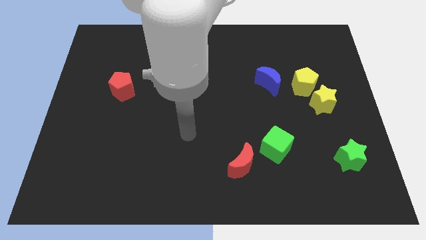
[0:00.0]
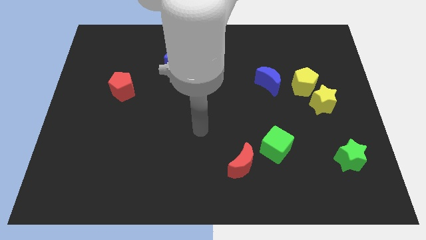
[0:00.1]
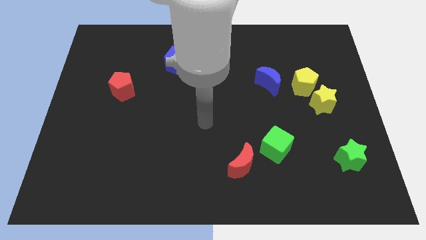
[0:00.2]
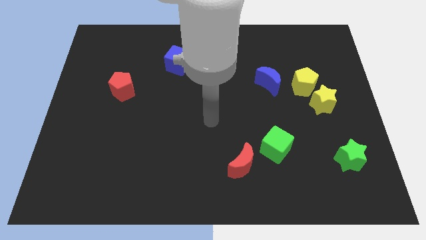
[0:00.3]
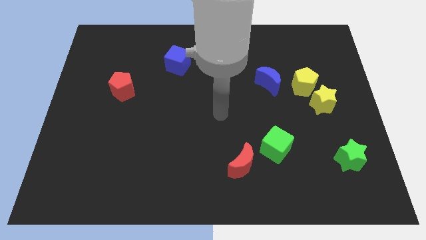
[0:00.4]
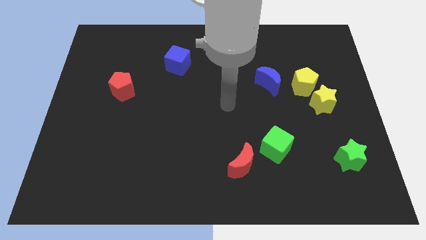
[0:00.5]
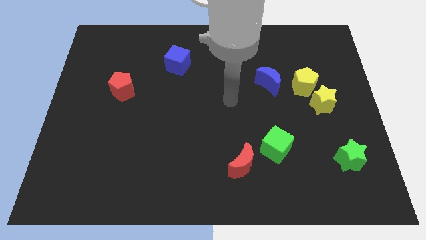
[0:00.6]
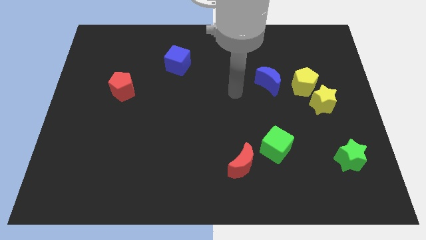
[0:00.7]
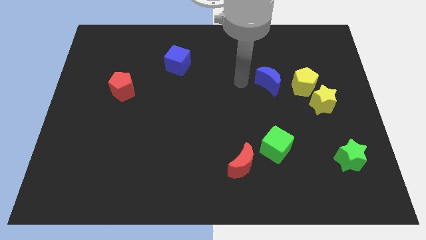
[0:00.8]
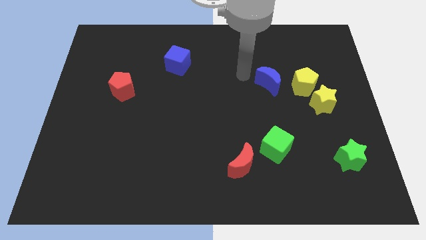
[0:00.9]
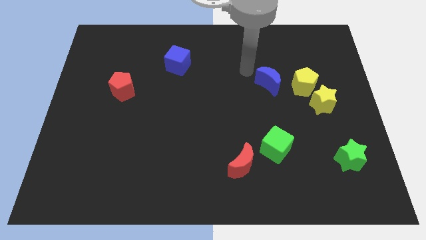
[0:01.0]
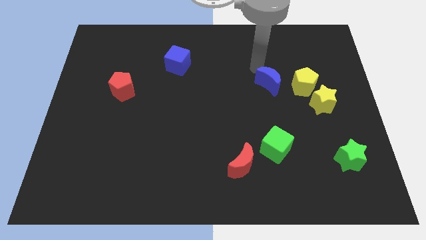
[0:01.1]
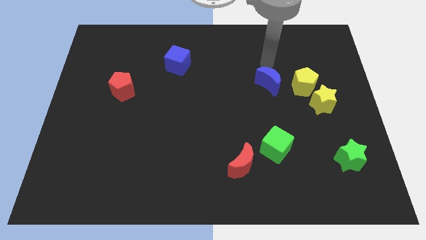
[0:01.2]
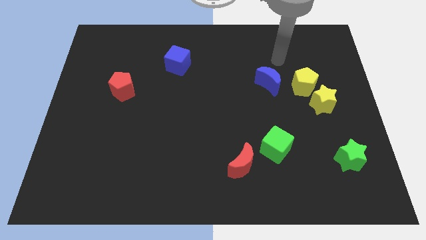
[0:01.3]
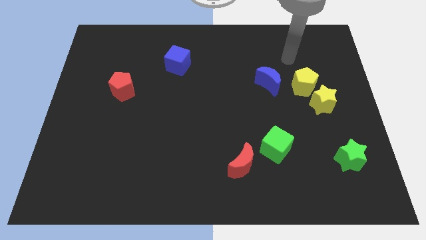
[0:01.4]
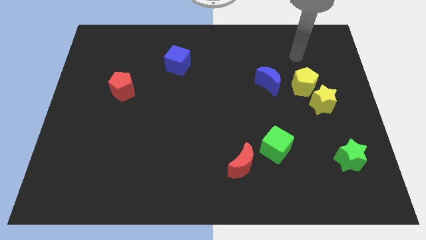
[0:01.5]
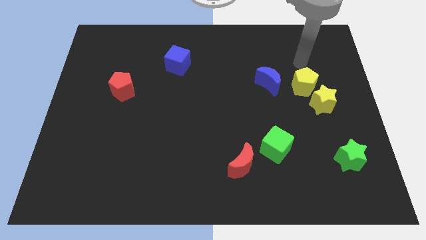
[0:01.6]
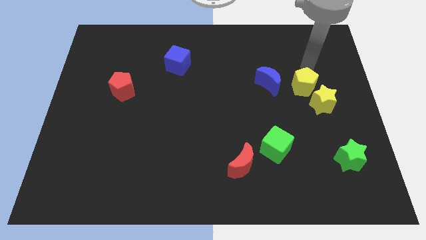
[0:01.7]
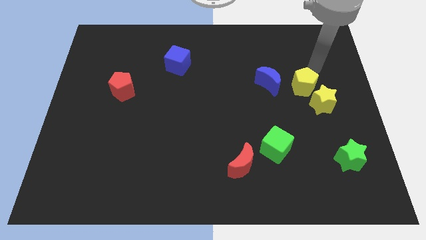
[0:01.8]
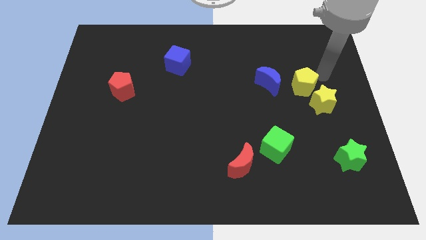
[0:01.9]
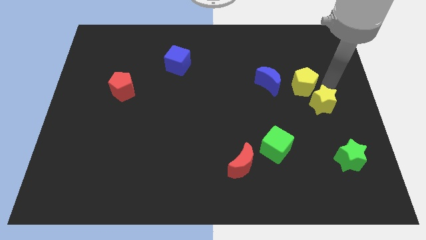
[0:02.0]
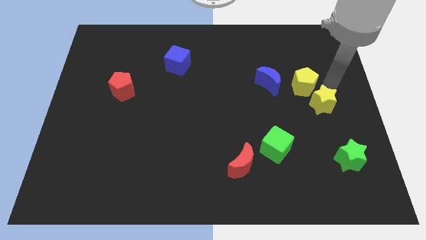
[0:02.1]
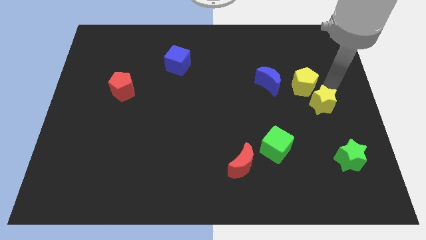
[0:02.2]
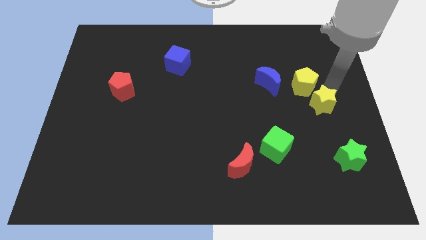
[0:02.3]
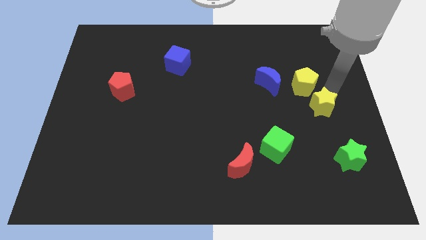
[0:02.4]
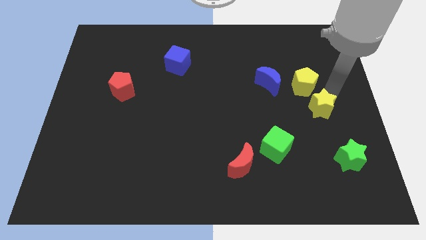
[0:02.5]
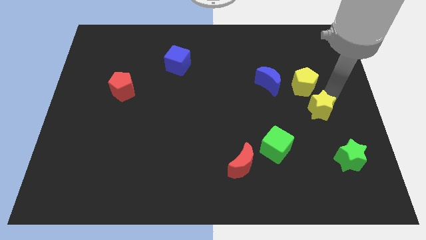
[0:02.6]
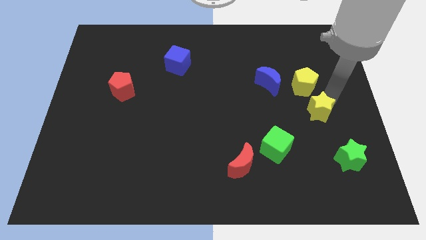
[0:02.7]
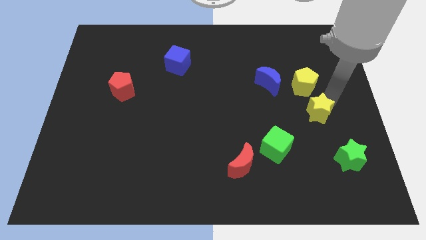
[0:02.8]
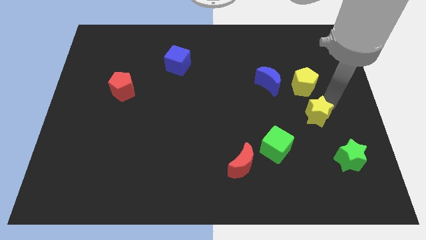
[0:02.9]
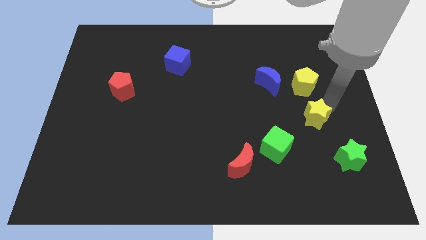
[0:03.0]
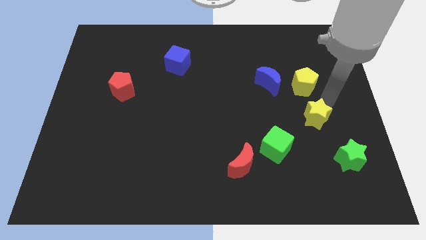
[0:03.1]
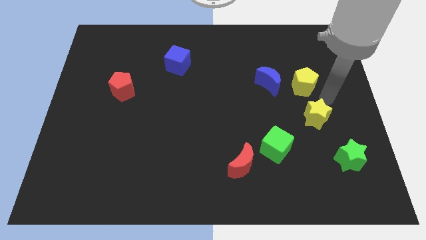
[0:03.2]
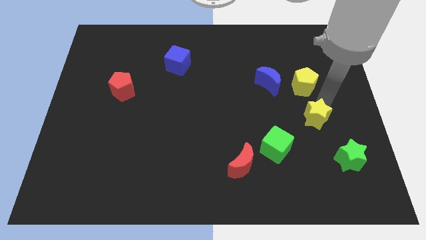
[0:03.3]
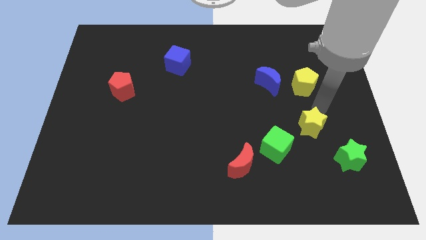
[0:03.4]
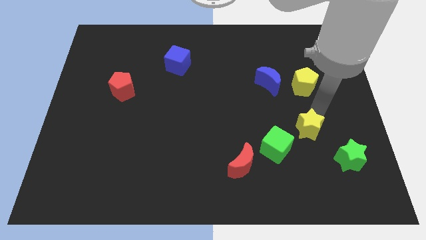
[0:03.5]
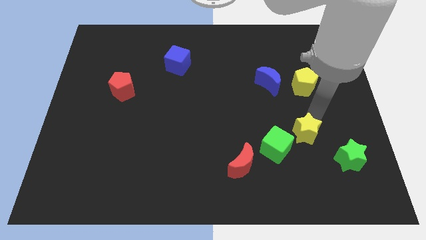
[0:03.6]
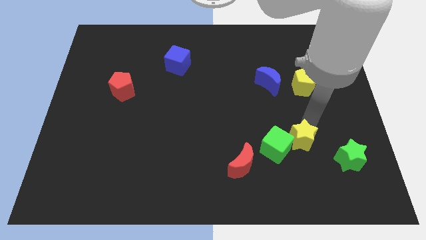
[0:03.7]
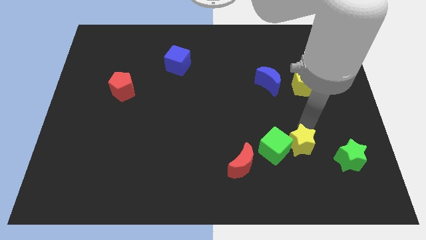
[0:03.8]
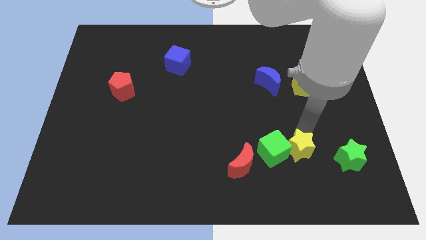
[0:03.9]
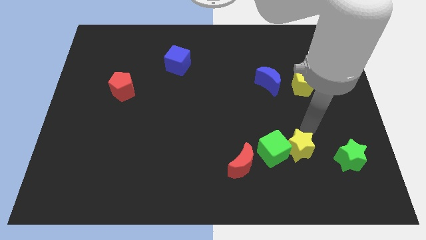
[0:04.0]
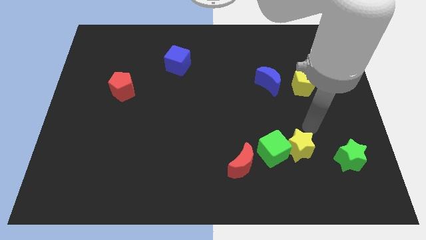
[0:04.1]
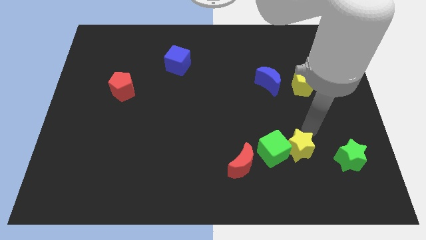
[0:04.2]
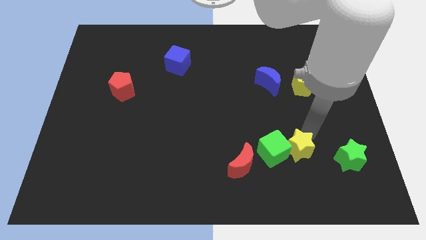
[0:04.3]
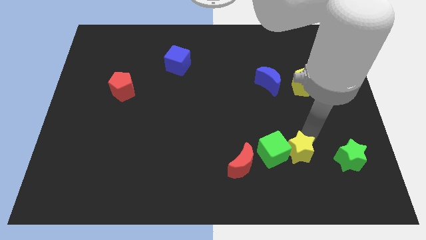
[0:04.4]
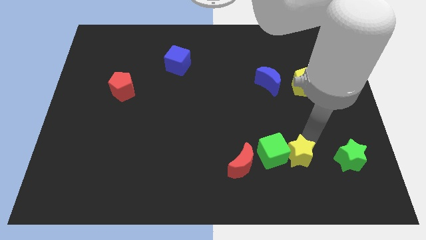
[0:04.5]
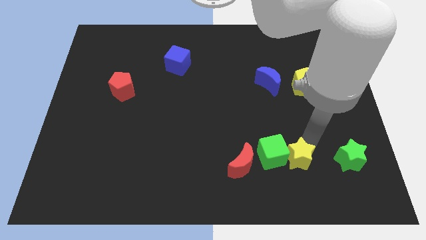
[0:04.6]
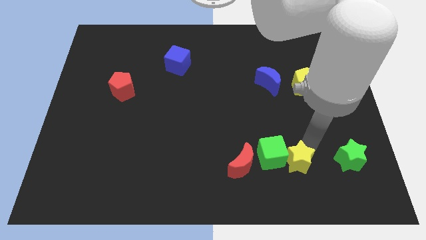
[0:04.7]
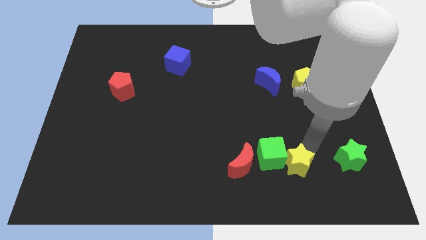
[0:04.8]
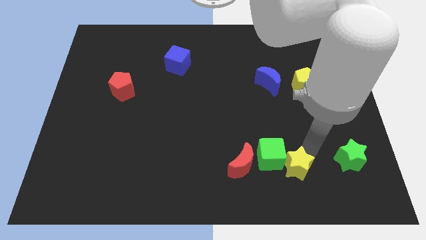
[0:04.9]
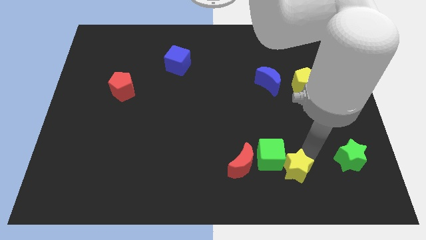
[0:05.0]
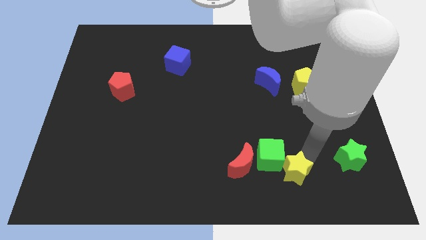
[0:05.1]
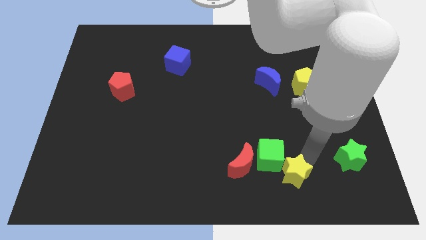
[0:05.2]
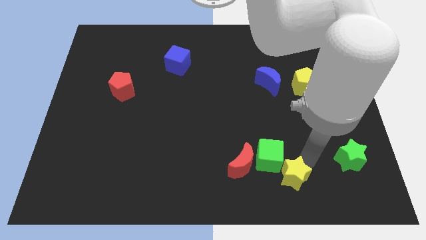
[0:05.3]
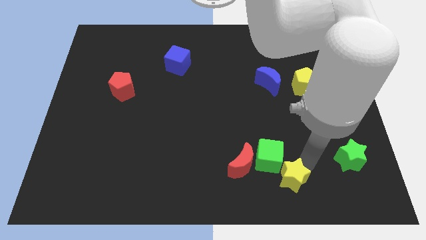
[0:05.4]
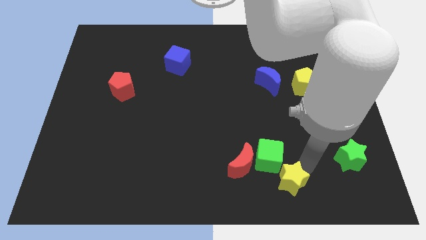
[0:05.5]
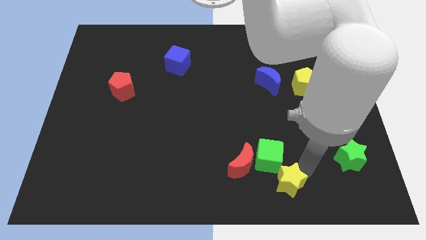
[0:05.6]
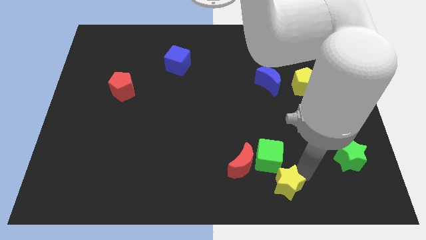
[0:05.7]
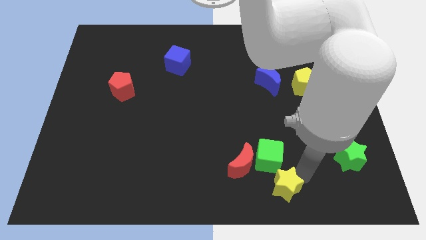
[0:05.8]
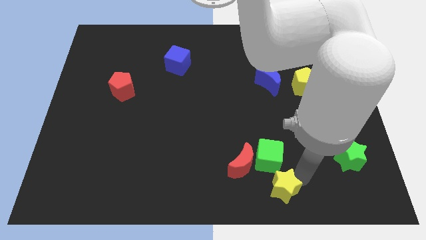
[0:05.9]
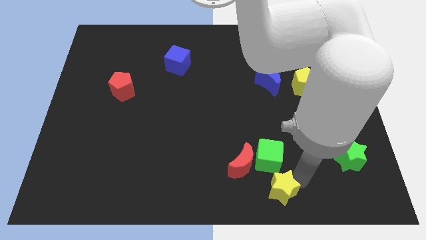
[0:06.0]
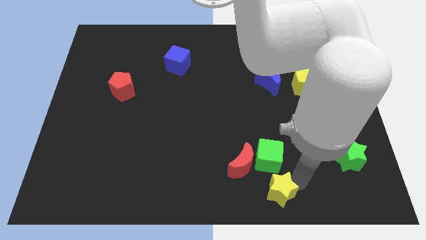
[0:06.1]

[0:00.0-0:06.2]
put the yellow star to the bottom side
